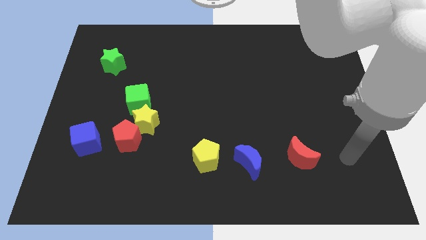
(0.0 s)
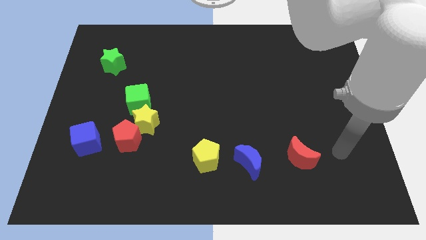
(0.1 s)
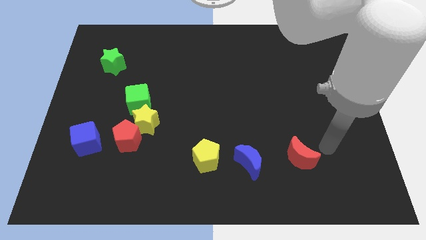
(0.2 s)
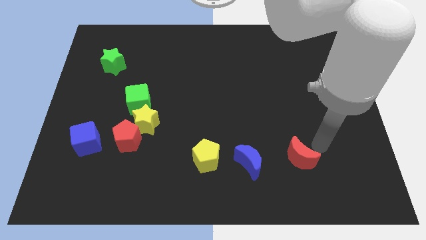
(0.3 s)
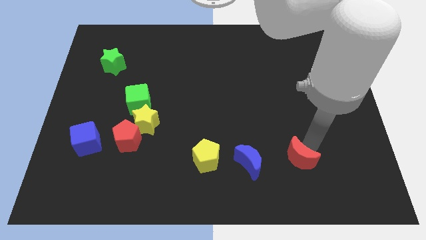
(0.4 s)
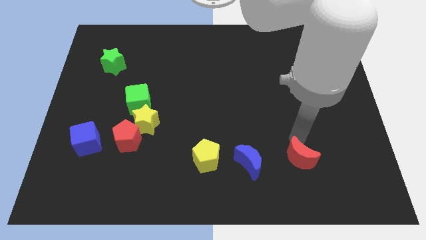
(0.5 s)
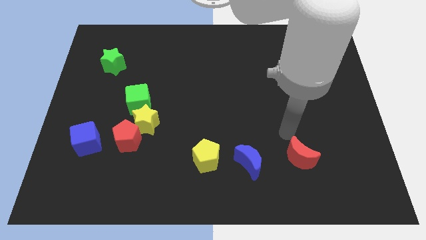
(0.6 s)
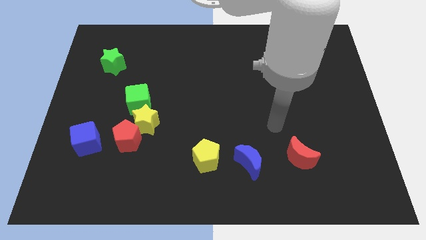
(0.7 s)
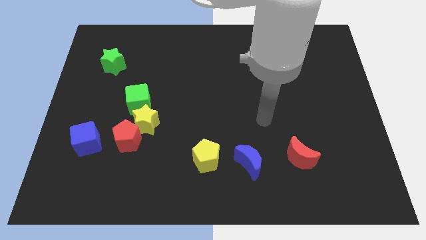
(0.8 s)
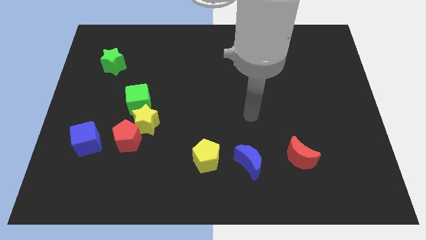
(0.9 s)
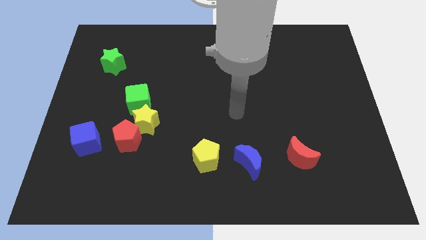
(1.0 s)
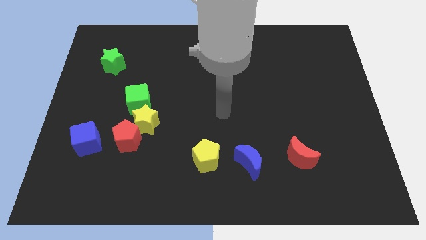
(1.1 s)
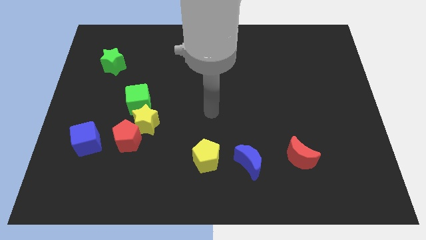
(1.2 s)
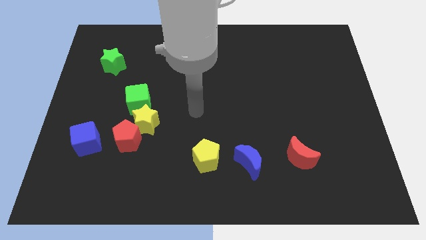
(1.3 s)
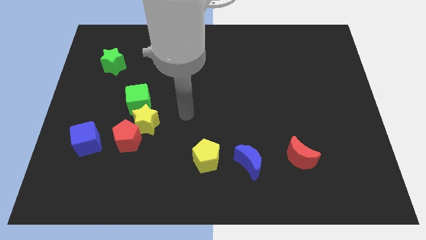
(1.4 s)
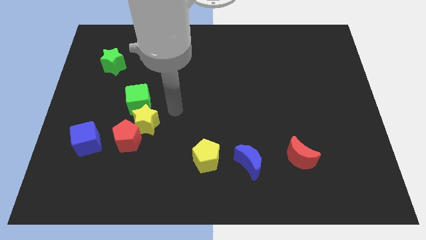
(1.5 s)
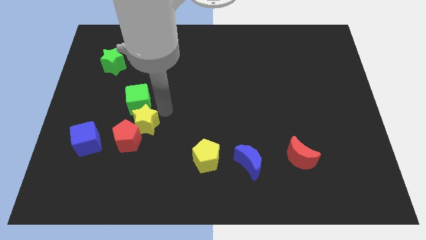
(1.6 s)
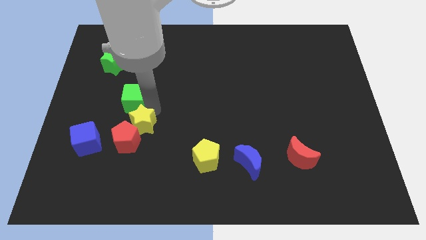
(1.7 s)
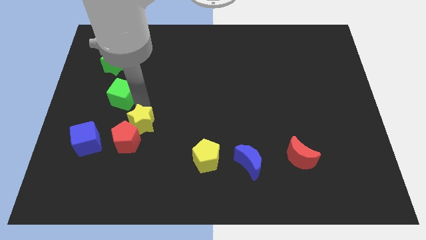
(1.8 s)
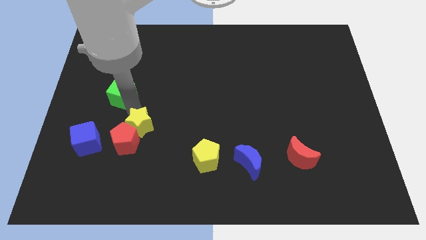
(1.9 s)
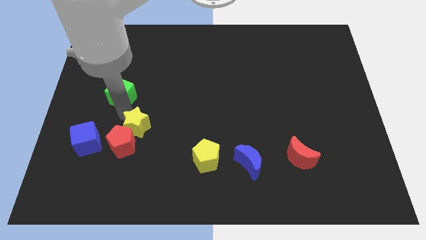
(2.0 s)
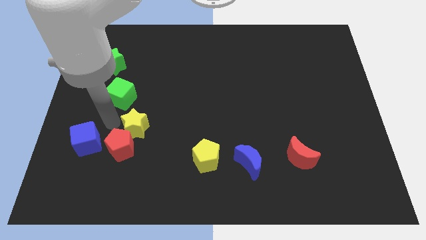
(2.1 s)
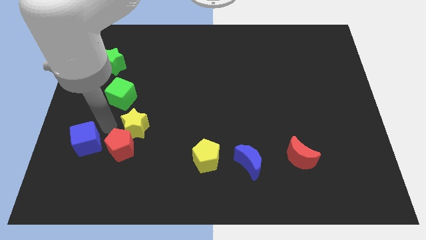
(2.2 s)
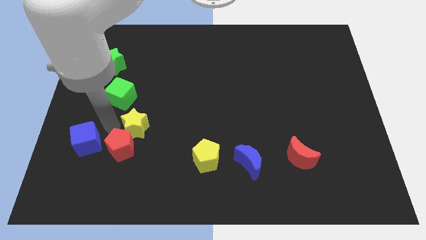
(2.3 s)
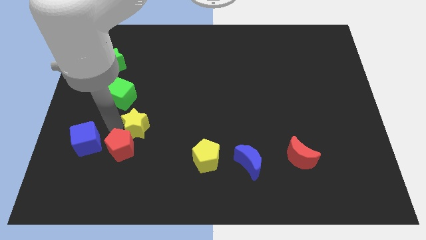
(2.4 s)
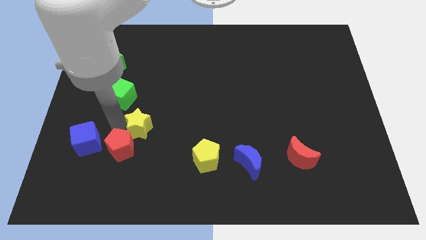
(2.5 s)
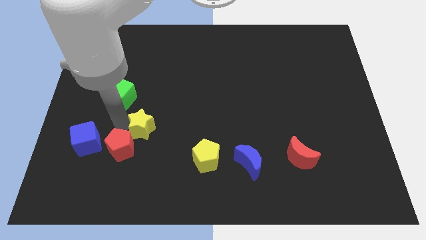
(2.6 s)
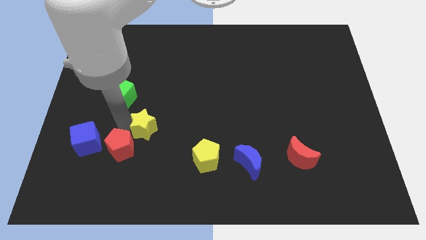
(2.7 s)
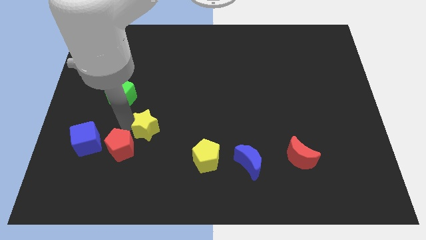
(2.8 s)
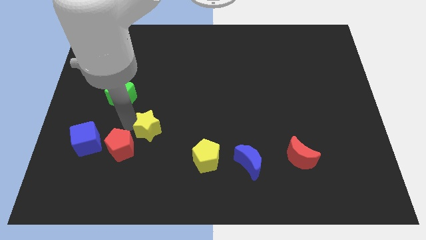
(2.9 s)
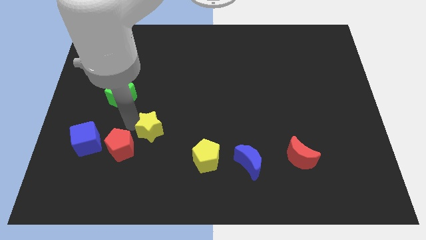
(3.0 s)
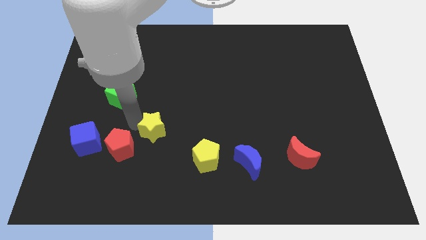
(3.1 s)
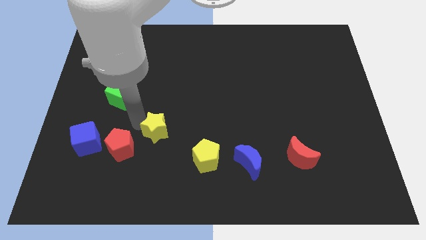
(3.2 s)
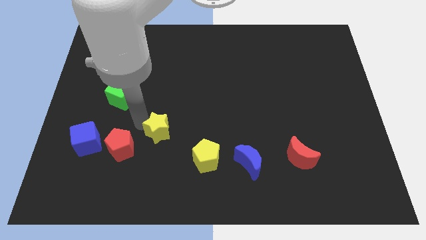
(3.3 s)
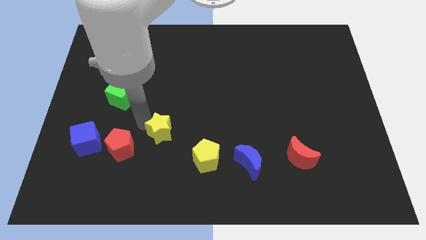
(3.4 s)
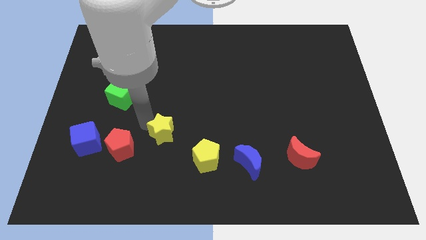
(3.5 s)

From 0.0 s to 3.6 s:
pull the yellow star apart from the red pentagon and green cube

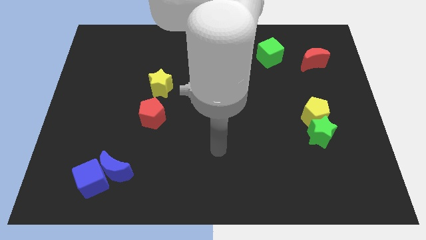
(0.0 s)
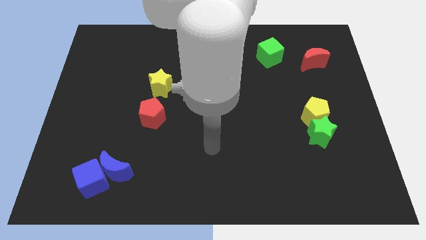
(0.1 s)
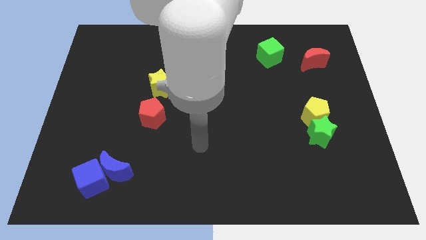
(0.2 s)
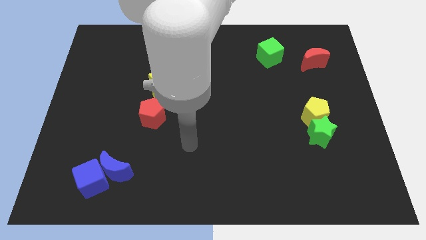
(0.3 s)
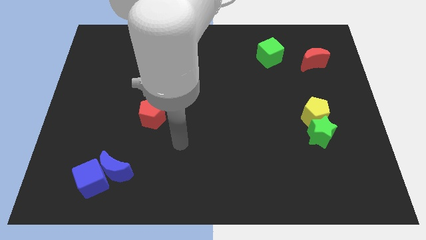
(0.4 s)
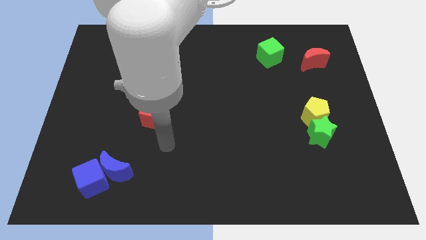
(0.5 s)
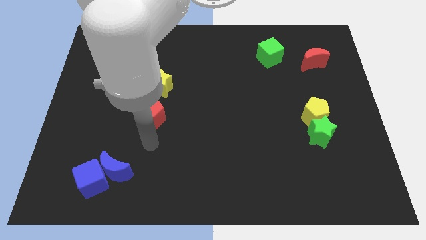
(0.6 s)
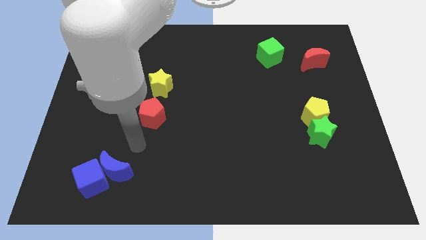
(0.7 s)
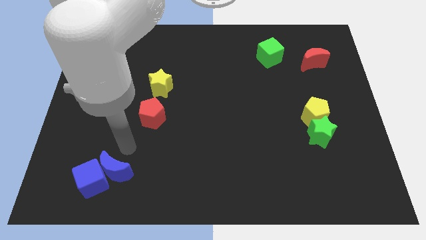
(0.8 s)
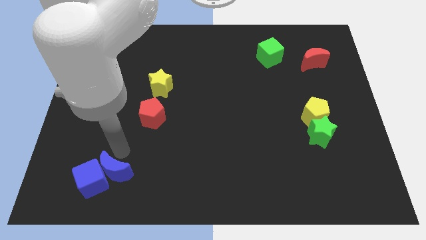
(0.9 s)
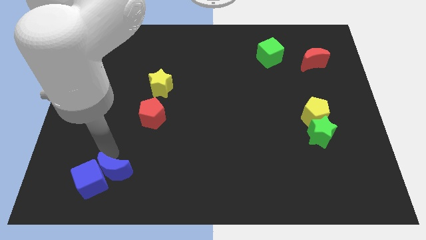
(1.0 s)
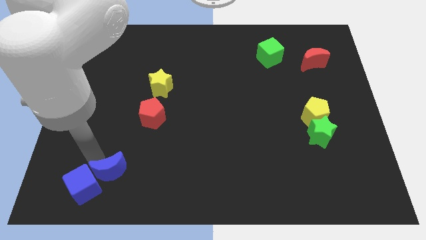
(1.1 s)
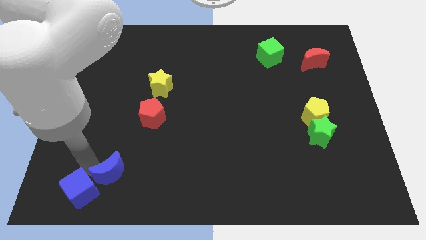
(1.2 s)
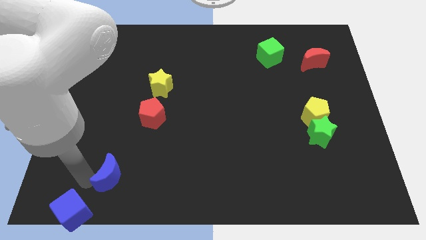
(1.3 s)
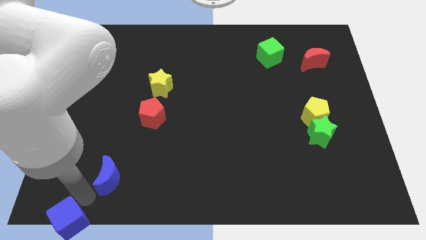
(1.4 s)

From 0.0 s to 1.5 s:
separate the blue moon from the blue cube

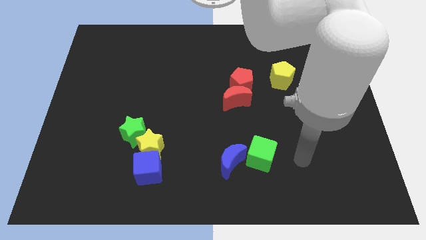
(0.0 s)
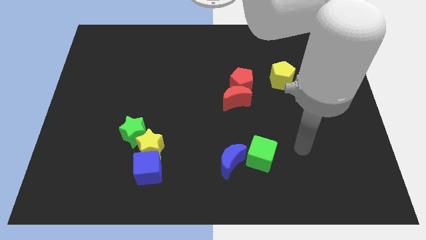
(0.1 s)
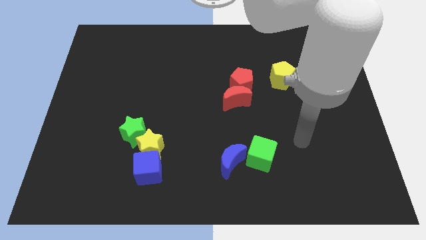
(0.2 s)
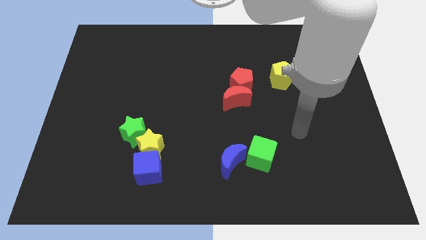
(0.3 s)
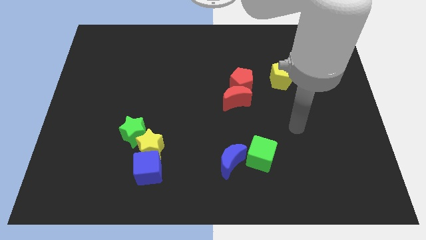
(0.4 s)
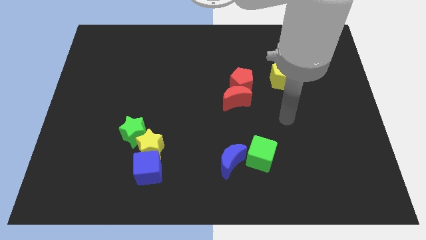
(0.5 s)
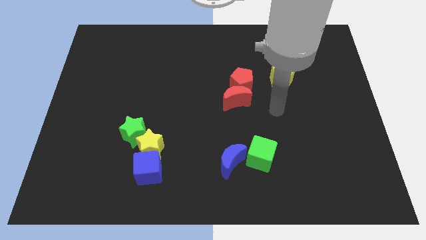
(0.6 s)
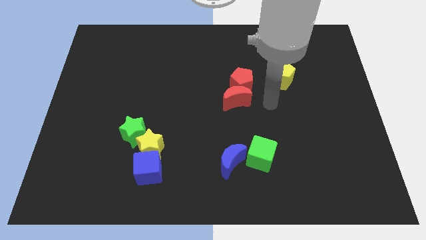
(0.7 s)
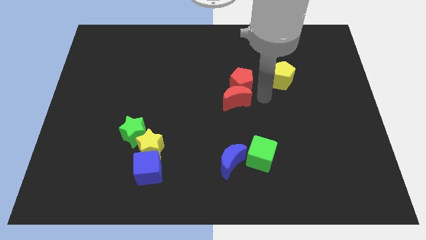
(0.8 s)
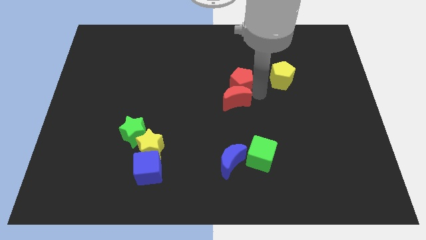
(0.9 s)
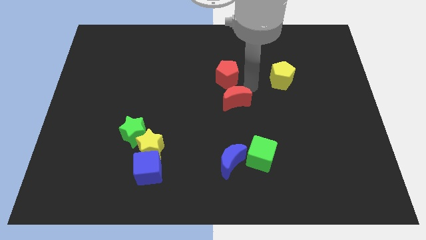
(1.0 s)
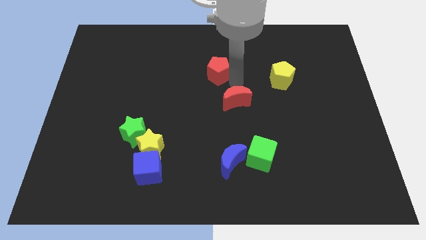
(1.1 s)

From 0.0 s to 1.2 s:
separate the red moon from the red pentagon

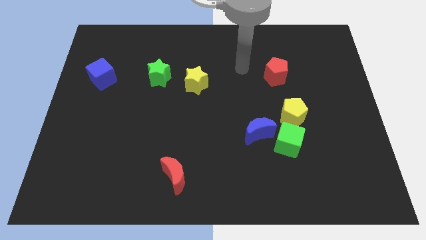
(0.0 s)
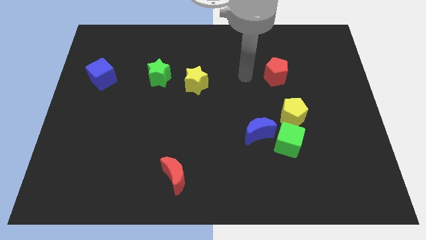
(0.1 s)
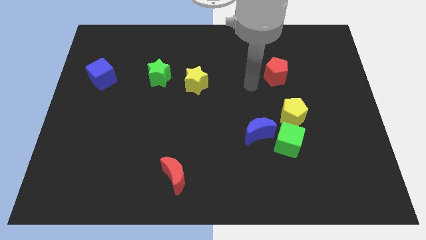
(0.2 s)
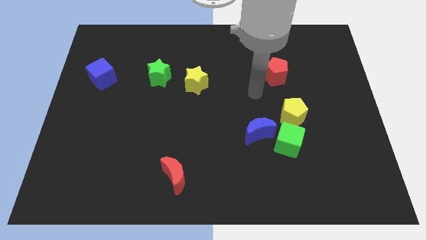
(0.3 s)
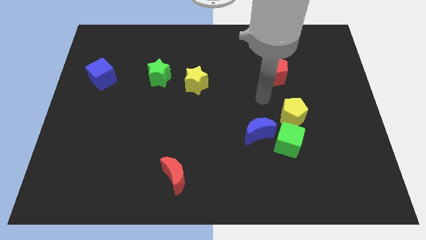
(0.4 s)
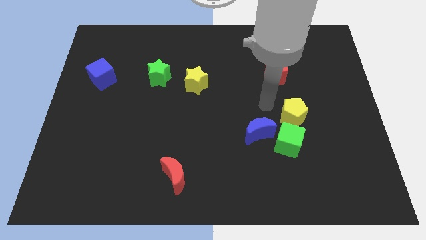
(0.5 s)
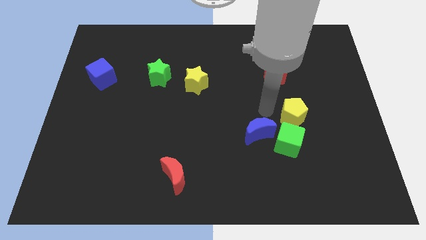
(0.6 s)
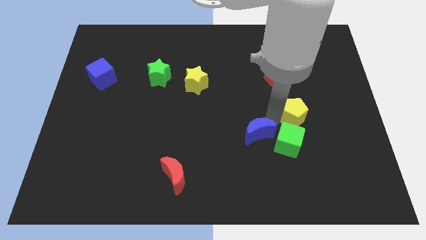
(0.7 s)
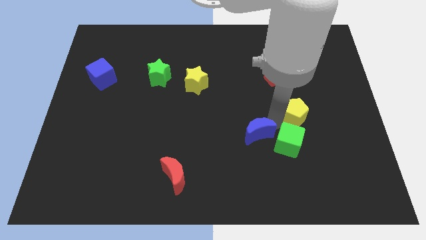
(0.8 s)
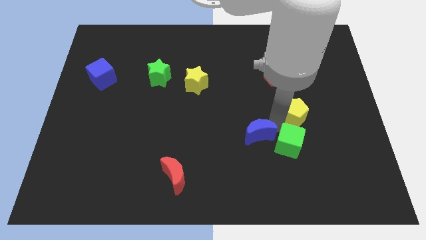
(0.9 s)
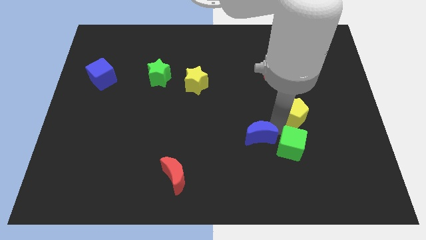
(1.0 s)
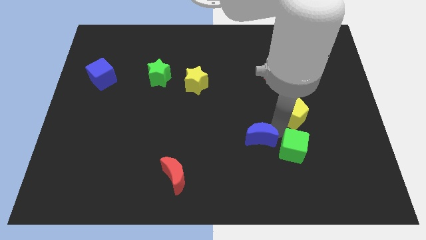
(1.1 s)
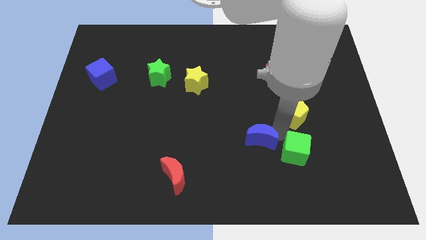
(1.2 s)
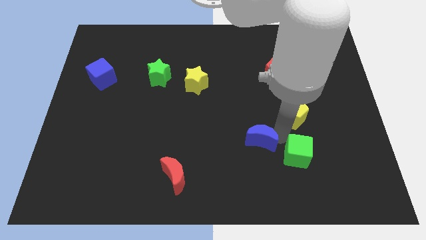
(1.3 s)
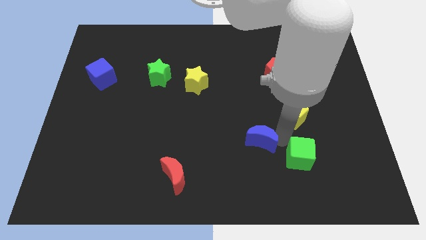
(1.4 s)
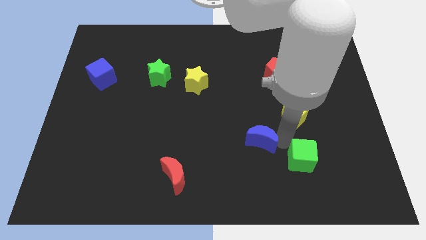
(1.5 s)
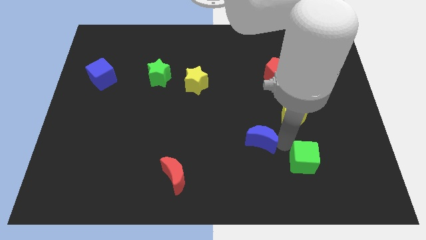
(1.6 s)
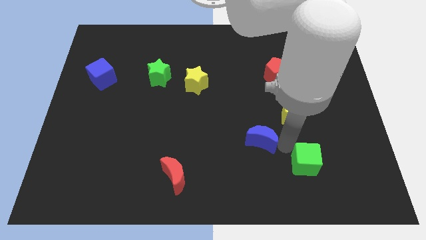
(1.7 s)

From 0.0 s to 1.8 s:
move the green cube away from the blue moon and yellow pentagon

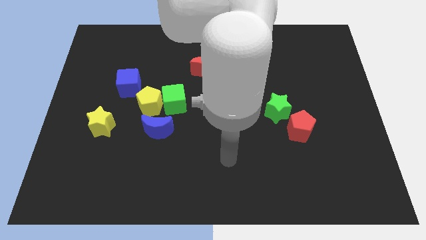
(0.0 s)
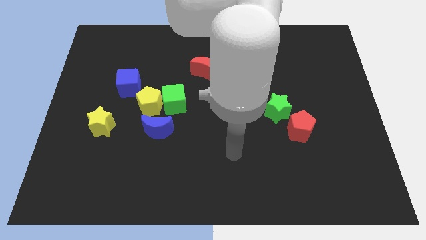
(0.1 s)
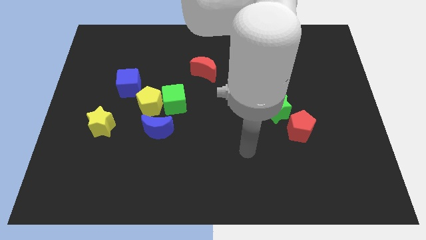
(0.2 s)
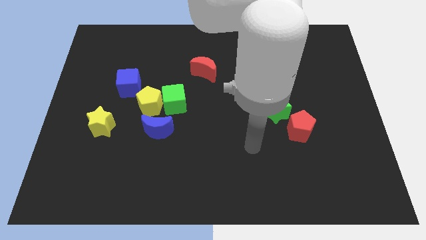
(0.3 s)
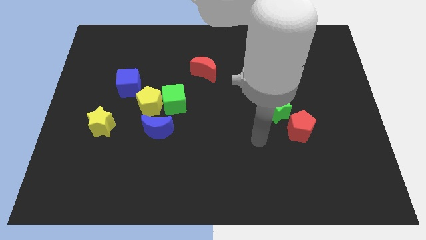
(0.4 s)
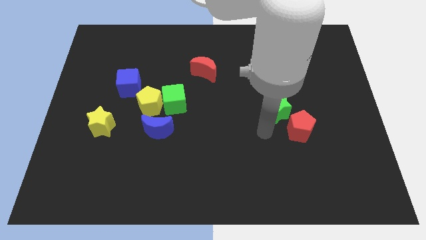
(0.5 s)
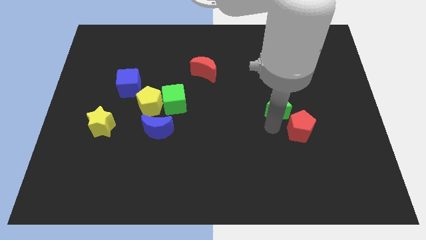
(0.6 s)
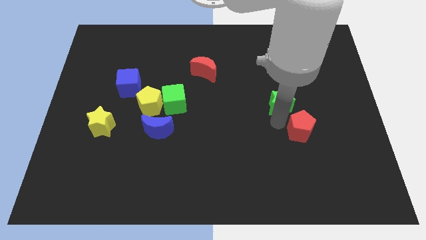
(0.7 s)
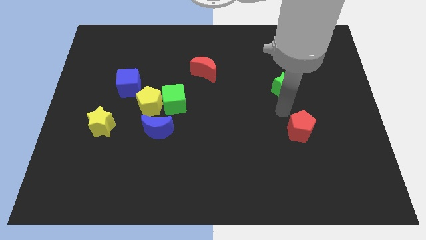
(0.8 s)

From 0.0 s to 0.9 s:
separate the red pentagon from the green star

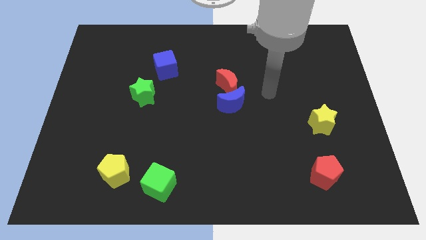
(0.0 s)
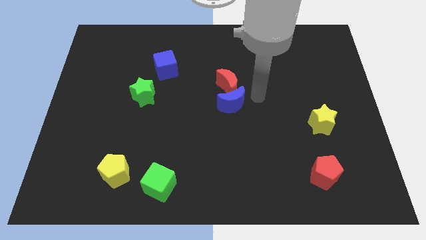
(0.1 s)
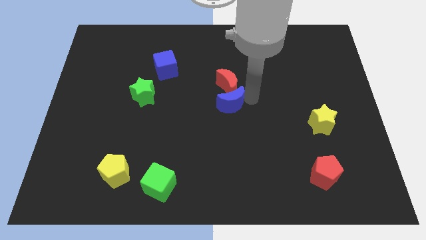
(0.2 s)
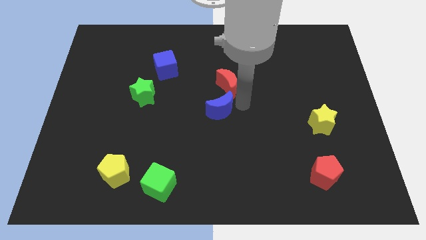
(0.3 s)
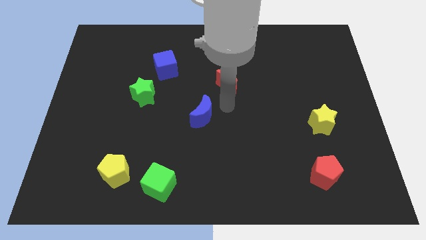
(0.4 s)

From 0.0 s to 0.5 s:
pull the red moon apart from the blue moon
